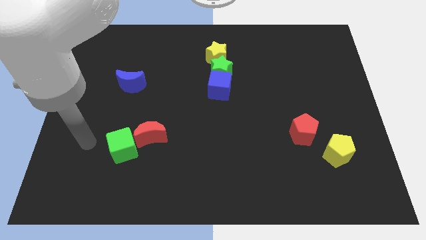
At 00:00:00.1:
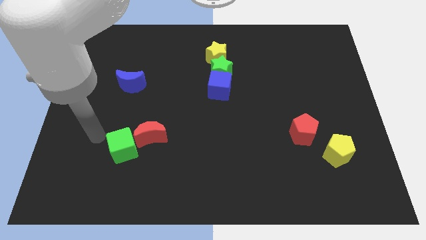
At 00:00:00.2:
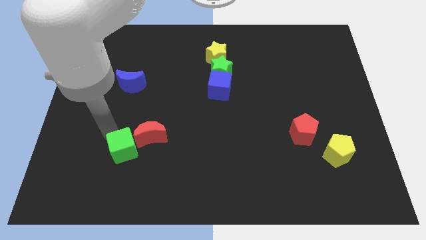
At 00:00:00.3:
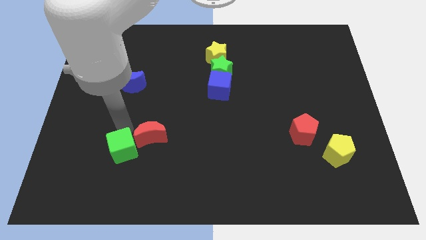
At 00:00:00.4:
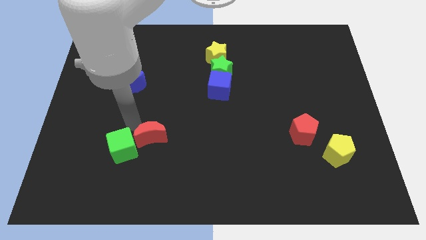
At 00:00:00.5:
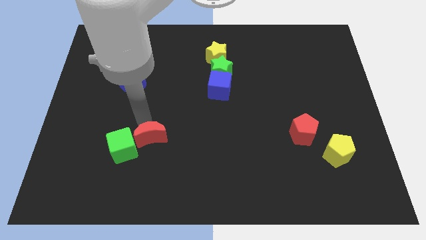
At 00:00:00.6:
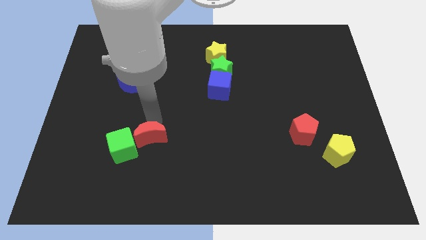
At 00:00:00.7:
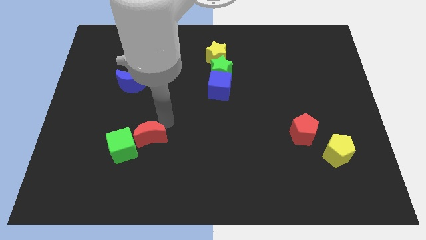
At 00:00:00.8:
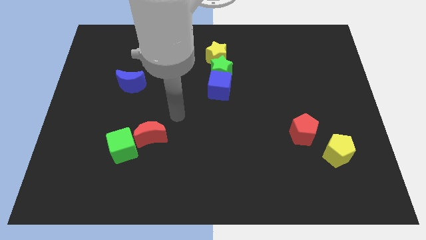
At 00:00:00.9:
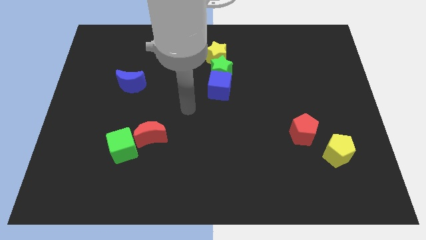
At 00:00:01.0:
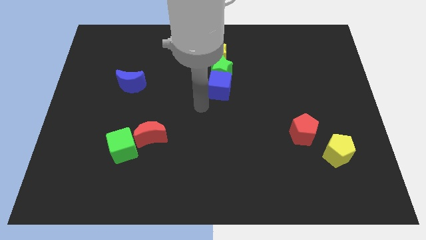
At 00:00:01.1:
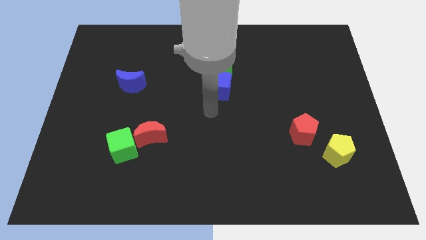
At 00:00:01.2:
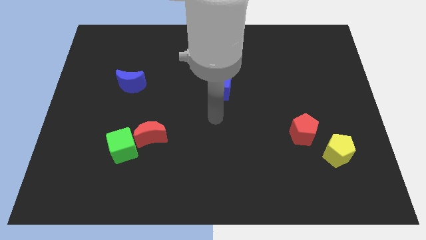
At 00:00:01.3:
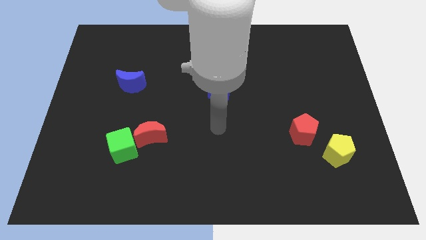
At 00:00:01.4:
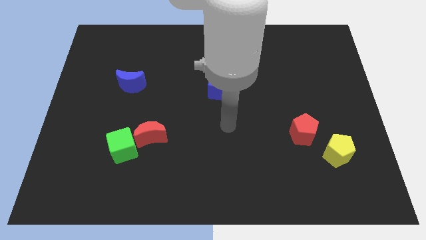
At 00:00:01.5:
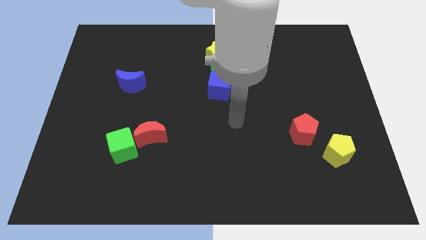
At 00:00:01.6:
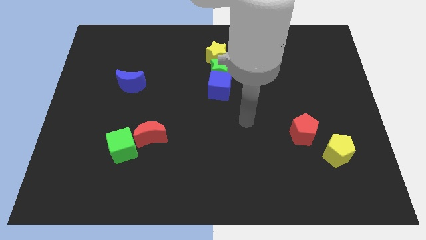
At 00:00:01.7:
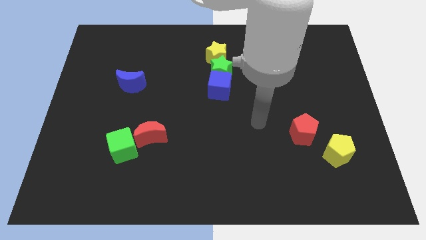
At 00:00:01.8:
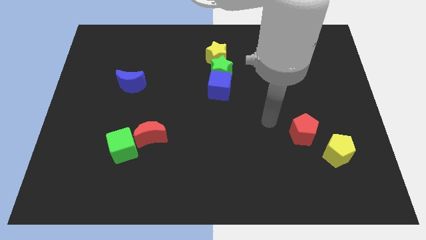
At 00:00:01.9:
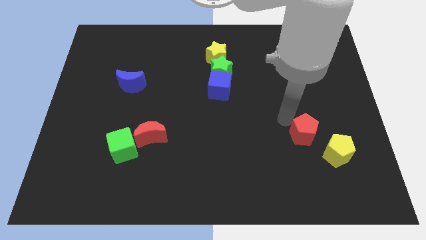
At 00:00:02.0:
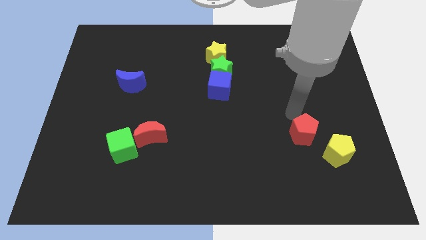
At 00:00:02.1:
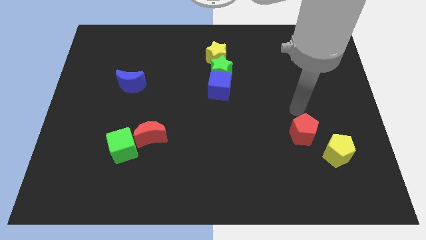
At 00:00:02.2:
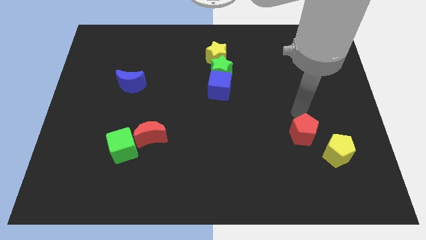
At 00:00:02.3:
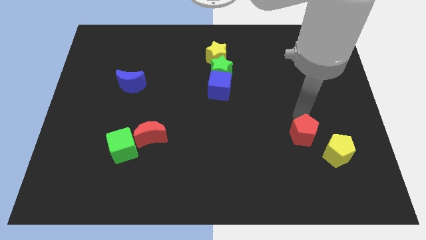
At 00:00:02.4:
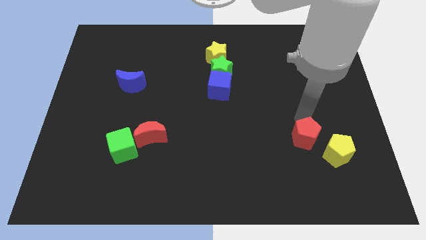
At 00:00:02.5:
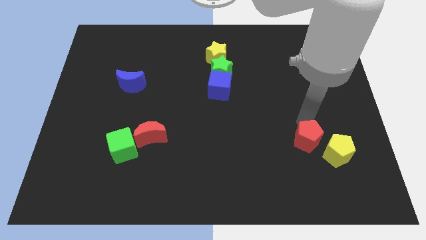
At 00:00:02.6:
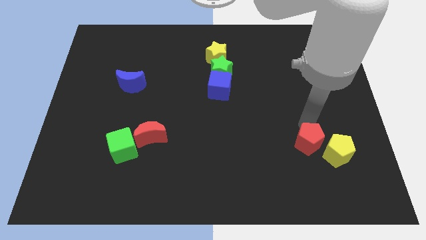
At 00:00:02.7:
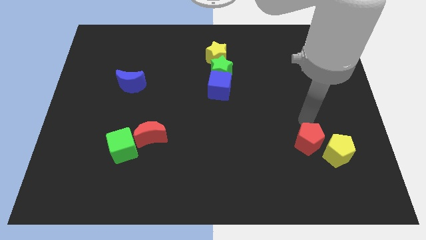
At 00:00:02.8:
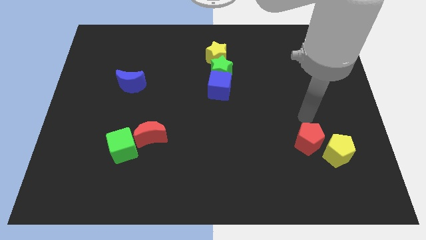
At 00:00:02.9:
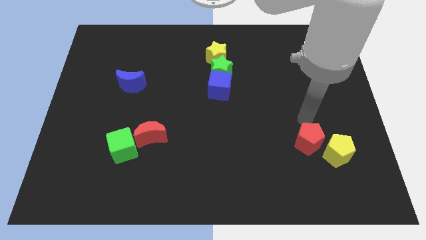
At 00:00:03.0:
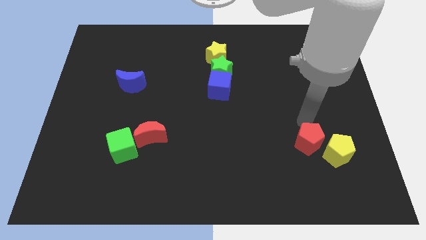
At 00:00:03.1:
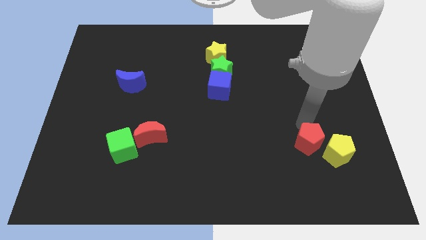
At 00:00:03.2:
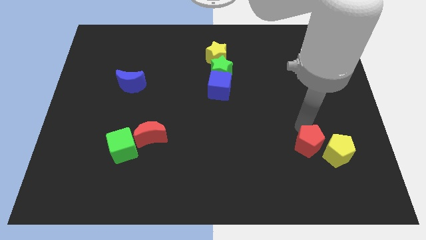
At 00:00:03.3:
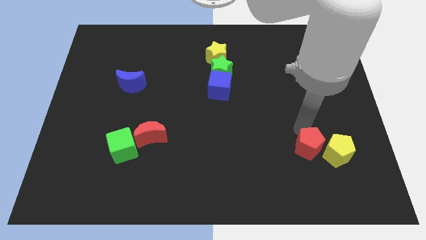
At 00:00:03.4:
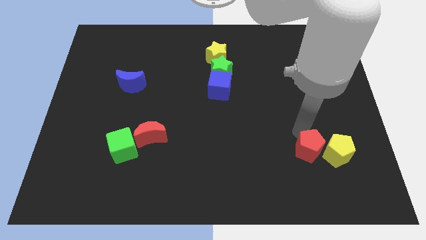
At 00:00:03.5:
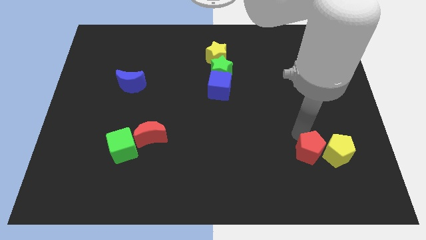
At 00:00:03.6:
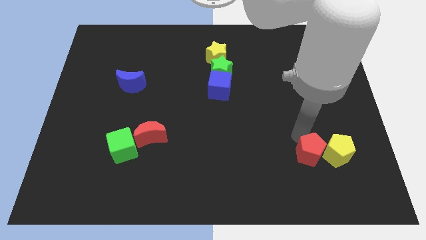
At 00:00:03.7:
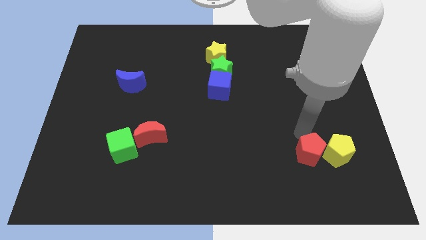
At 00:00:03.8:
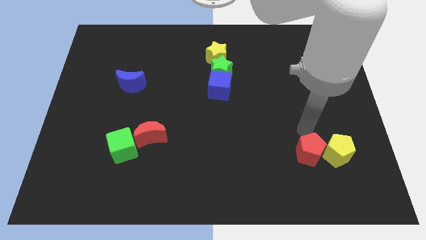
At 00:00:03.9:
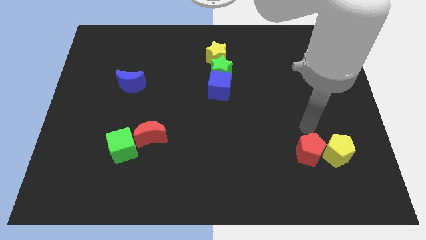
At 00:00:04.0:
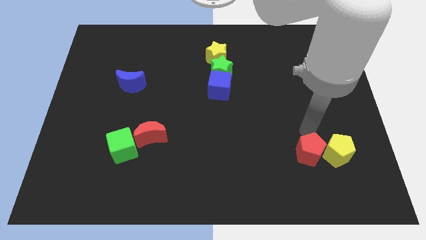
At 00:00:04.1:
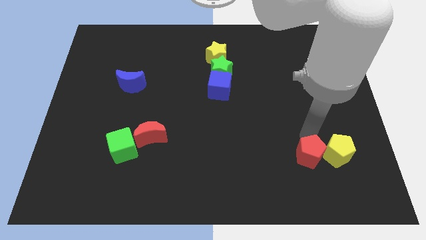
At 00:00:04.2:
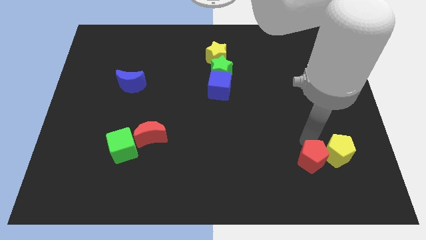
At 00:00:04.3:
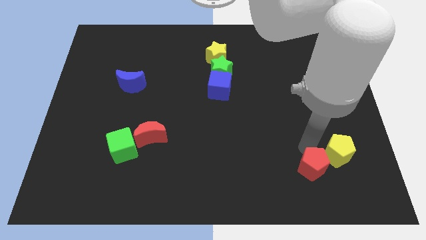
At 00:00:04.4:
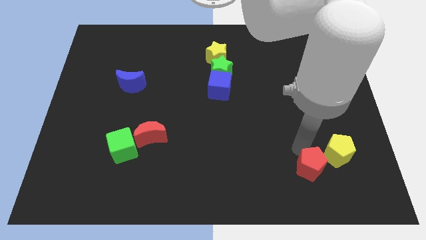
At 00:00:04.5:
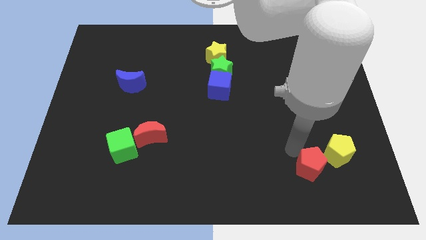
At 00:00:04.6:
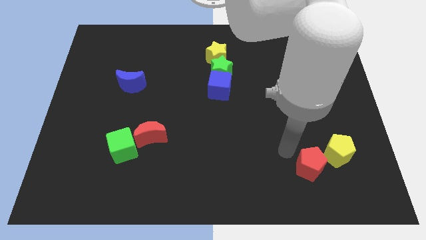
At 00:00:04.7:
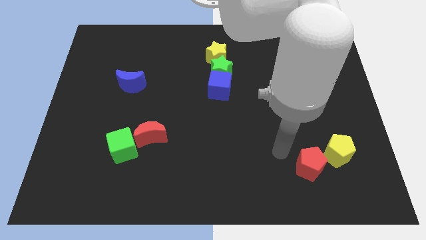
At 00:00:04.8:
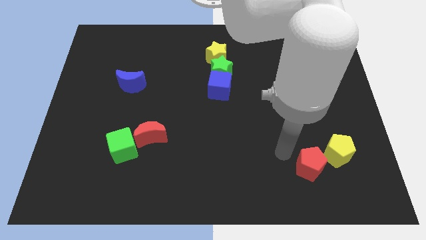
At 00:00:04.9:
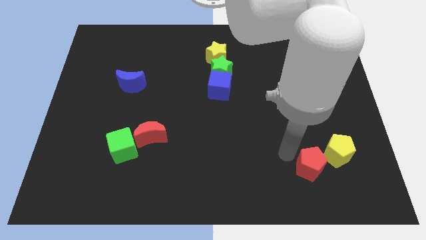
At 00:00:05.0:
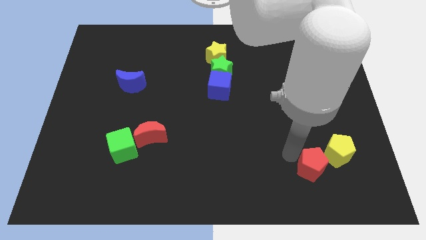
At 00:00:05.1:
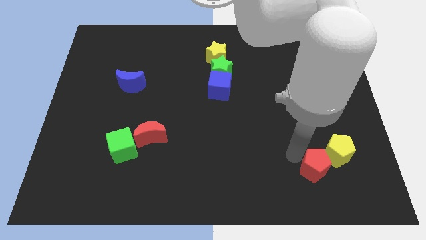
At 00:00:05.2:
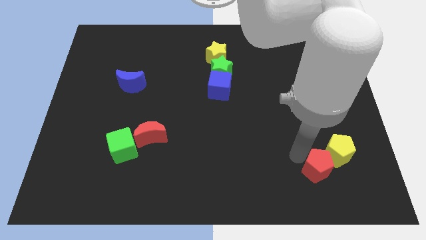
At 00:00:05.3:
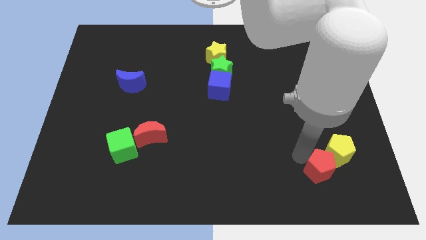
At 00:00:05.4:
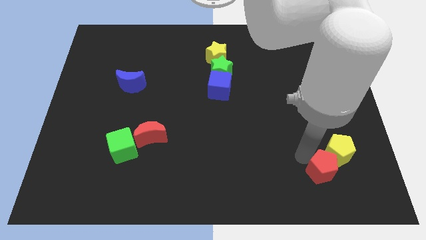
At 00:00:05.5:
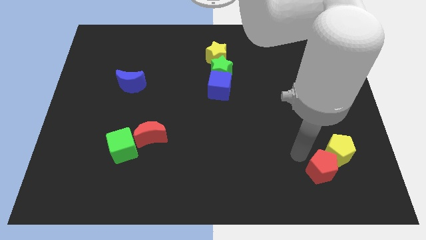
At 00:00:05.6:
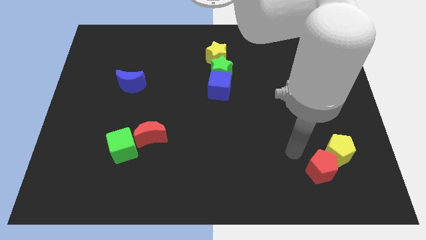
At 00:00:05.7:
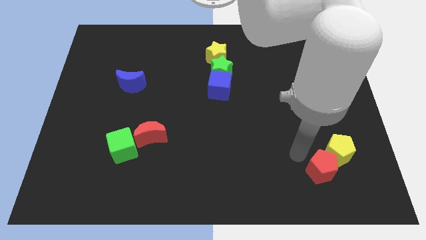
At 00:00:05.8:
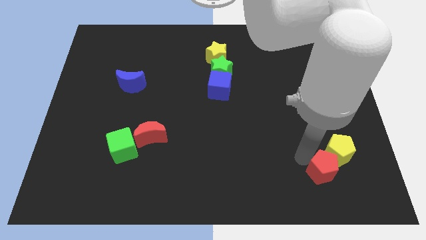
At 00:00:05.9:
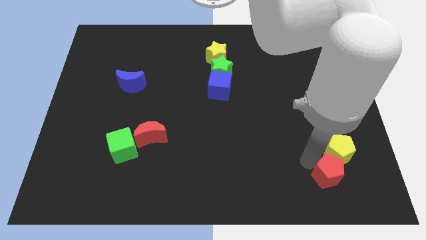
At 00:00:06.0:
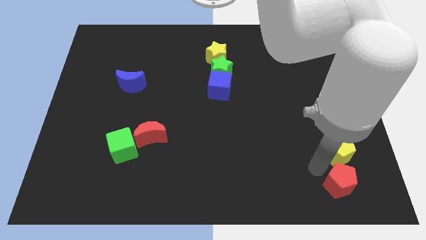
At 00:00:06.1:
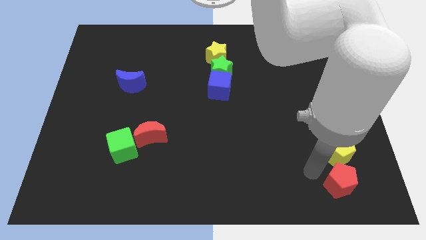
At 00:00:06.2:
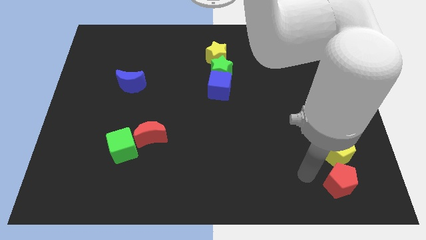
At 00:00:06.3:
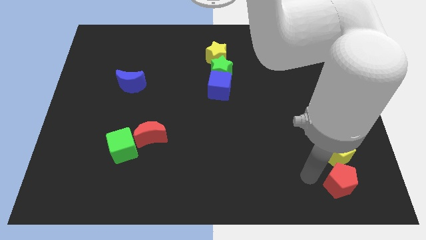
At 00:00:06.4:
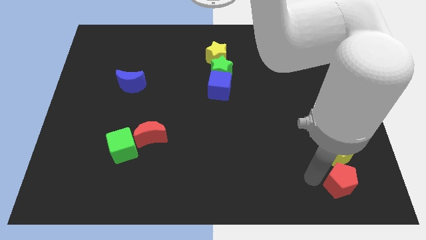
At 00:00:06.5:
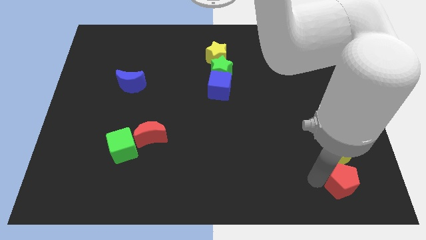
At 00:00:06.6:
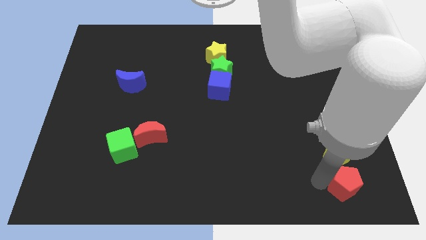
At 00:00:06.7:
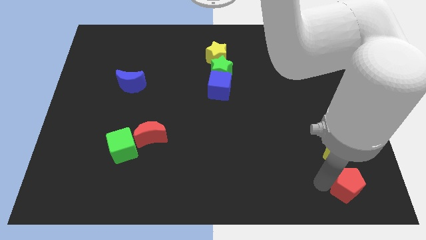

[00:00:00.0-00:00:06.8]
slide the red pentagon to the bottom right of the board
